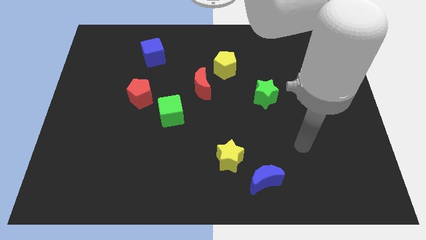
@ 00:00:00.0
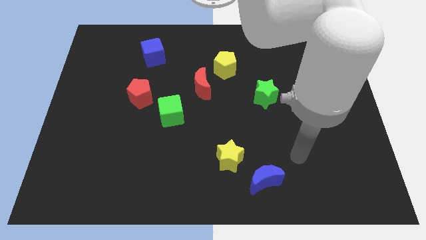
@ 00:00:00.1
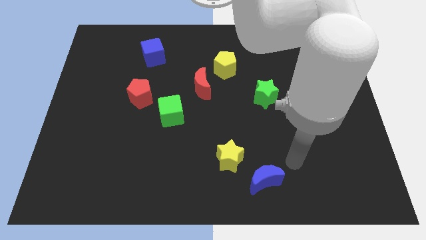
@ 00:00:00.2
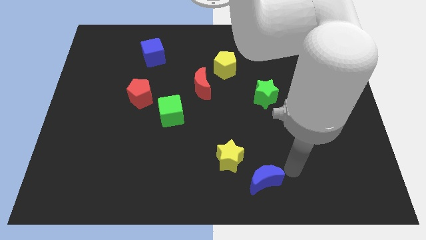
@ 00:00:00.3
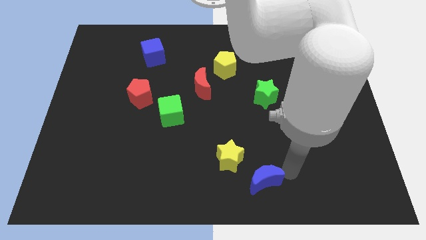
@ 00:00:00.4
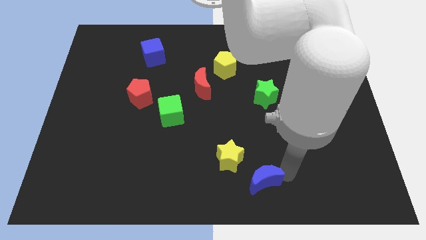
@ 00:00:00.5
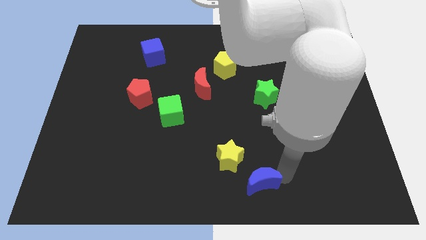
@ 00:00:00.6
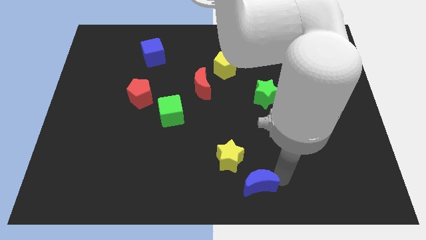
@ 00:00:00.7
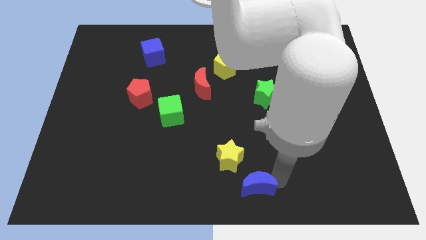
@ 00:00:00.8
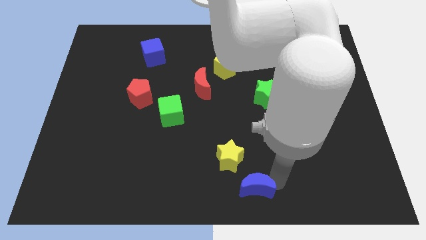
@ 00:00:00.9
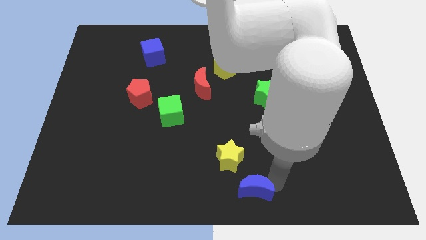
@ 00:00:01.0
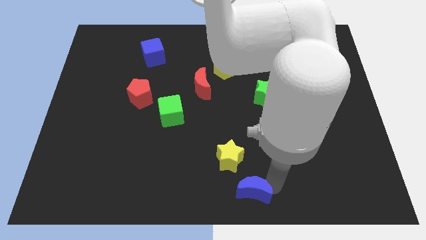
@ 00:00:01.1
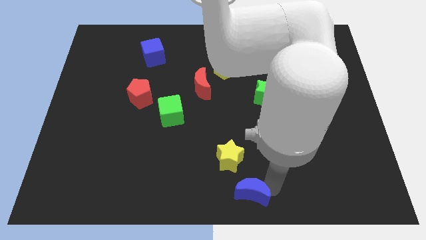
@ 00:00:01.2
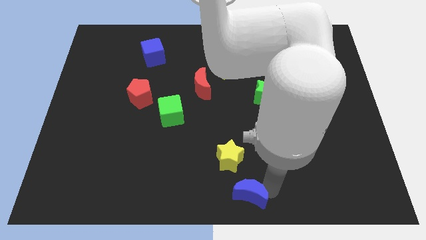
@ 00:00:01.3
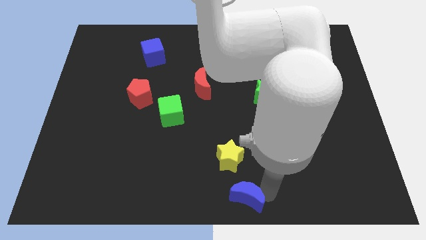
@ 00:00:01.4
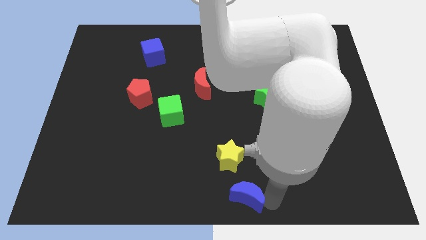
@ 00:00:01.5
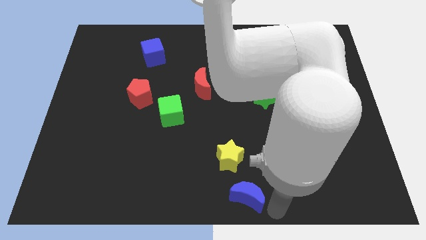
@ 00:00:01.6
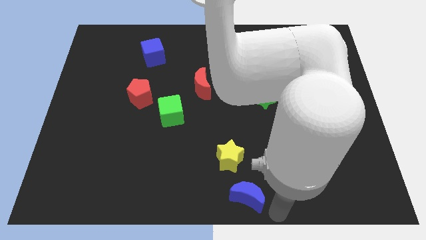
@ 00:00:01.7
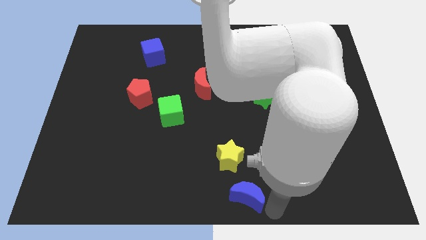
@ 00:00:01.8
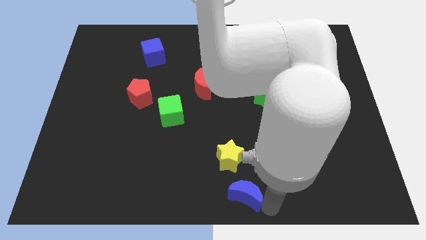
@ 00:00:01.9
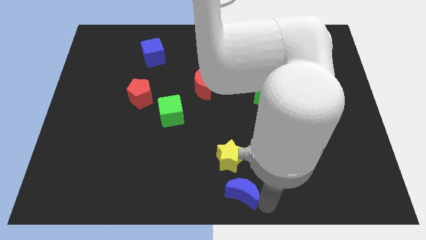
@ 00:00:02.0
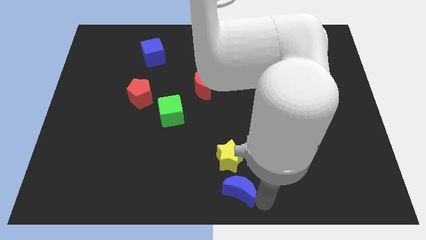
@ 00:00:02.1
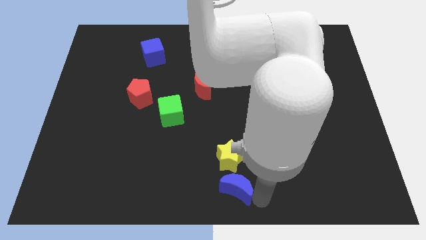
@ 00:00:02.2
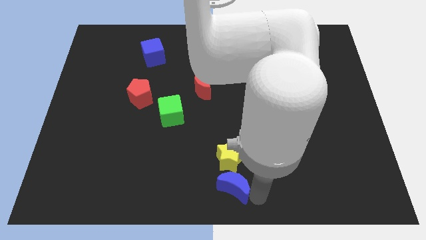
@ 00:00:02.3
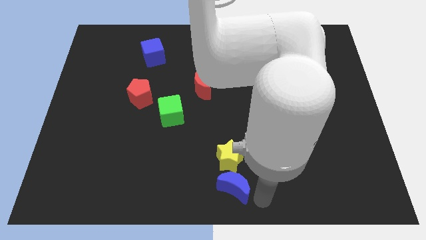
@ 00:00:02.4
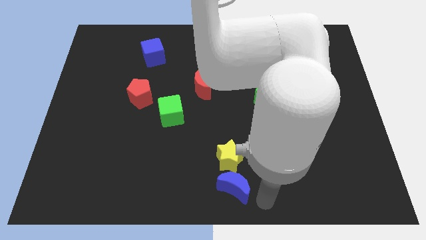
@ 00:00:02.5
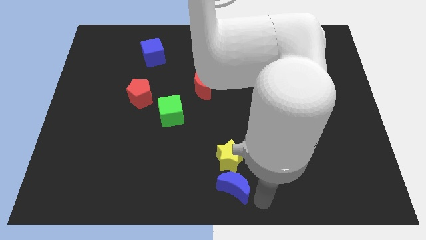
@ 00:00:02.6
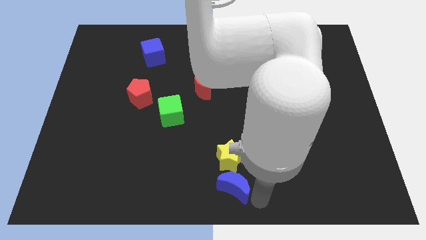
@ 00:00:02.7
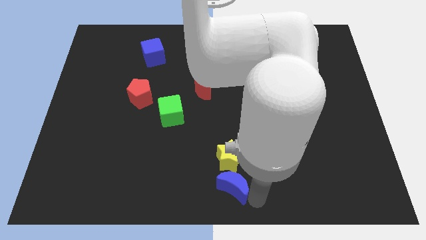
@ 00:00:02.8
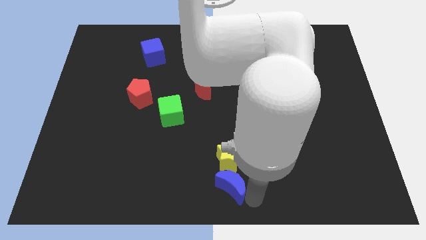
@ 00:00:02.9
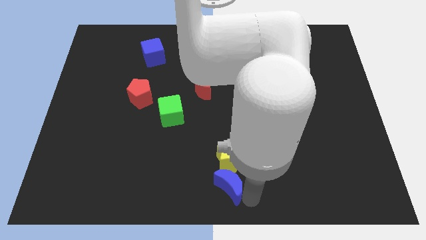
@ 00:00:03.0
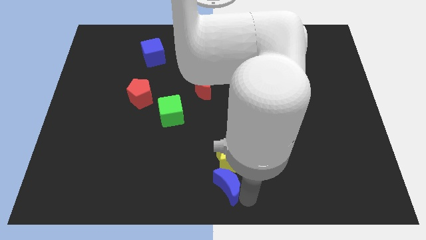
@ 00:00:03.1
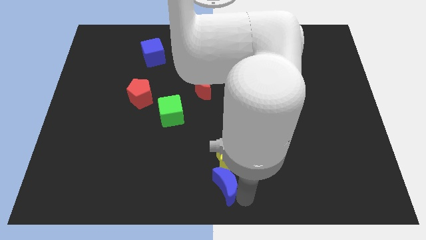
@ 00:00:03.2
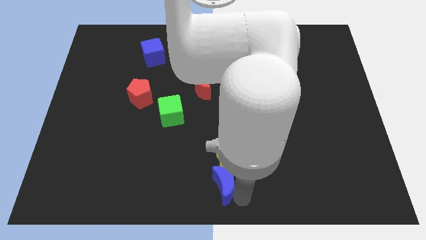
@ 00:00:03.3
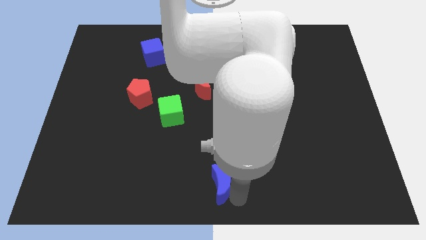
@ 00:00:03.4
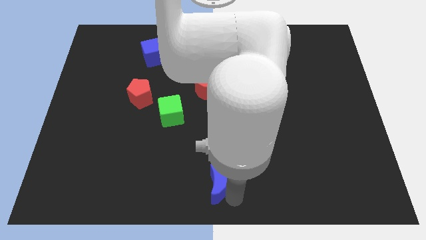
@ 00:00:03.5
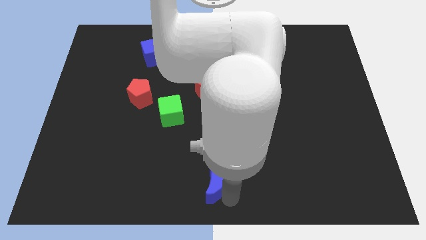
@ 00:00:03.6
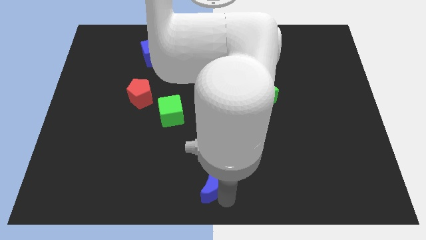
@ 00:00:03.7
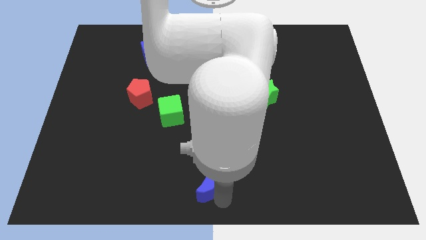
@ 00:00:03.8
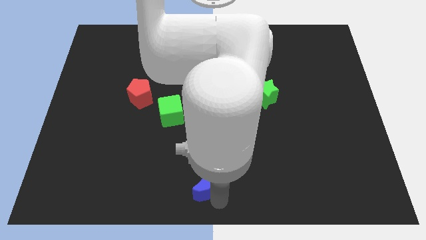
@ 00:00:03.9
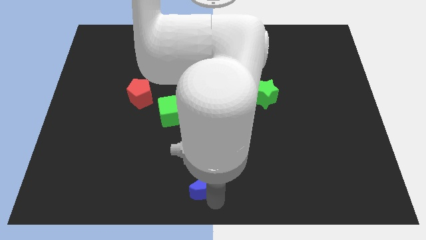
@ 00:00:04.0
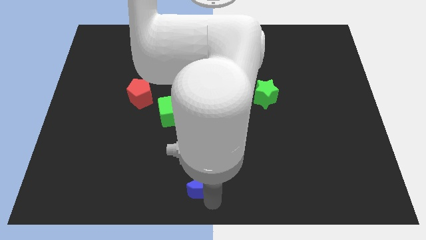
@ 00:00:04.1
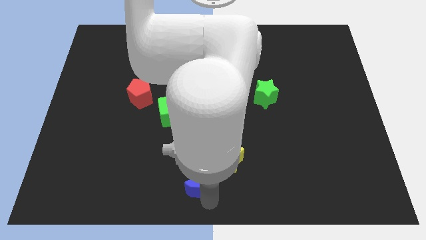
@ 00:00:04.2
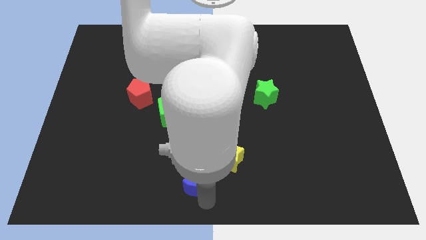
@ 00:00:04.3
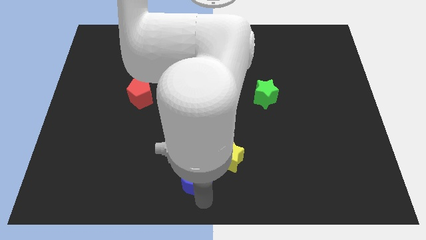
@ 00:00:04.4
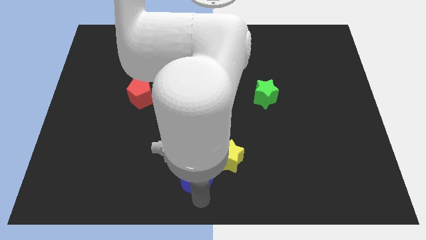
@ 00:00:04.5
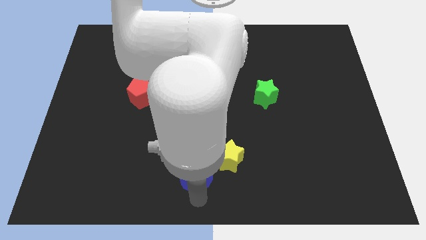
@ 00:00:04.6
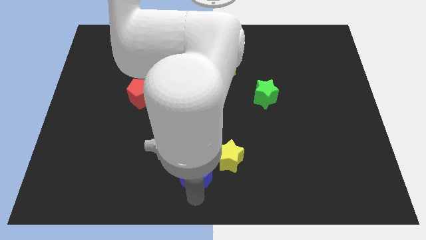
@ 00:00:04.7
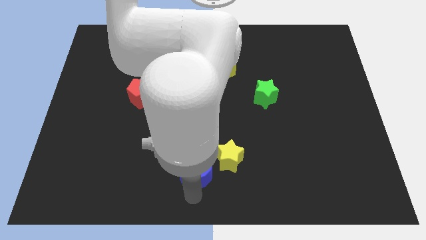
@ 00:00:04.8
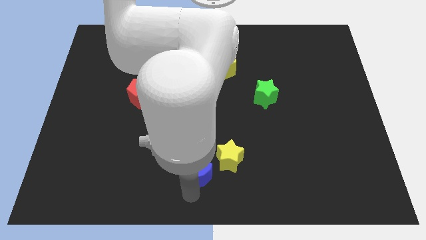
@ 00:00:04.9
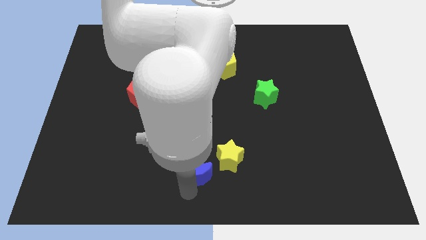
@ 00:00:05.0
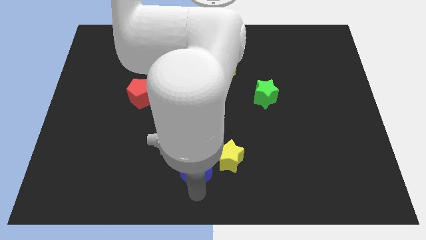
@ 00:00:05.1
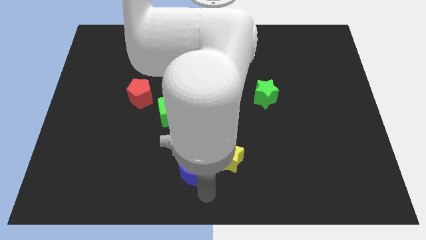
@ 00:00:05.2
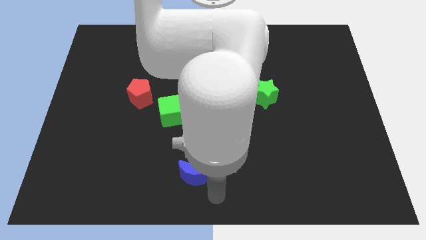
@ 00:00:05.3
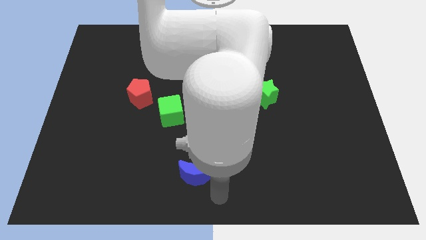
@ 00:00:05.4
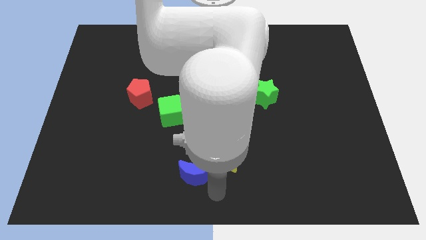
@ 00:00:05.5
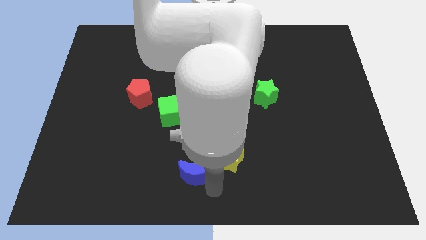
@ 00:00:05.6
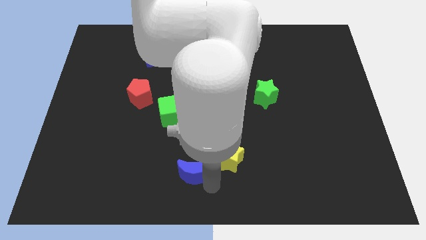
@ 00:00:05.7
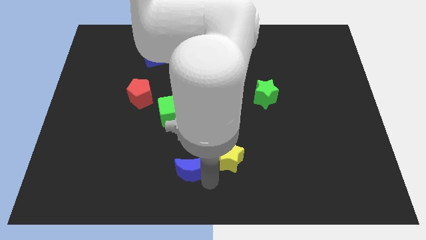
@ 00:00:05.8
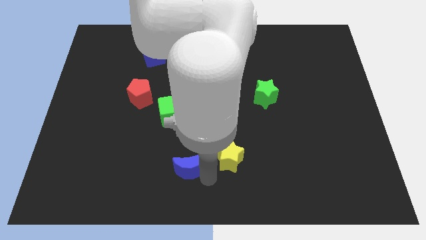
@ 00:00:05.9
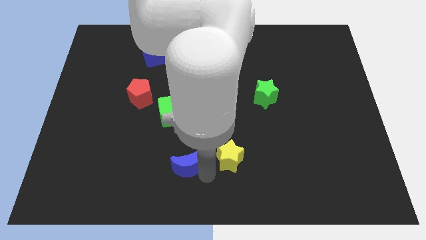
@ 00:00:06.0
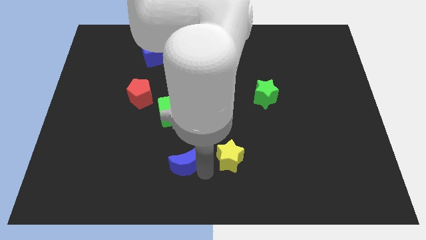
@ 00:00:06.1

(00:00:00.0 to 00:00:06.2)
slide the blue moon below the green cube

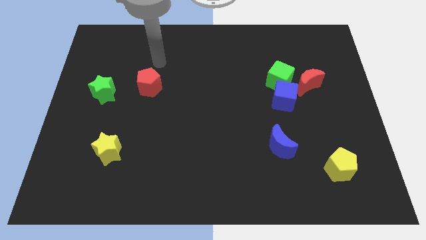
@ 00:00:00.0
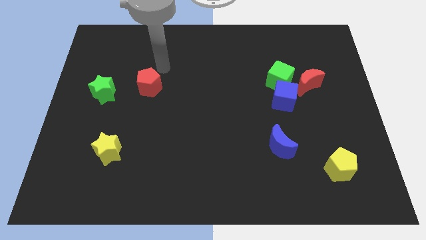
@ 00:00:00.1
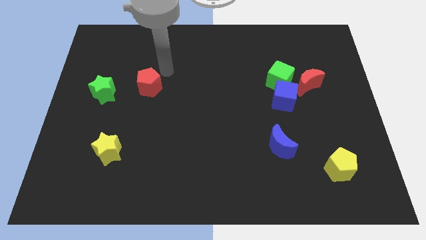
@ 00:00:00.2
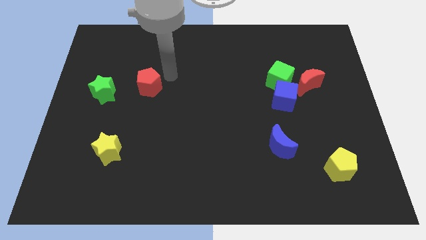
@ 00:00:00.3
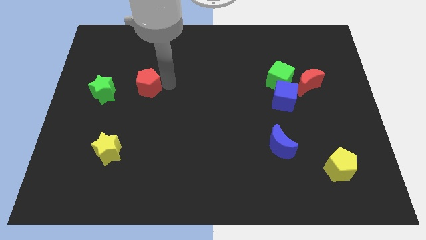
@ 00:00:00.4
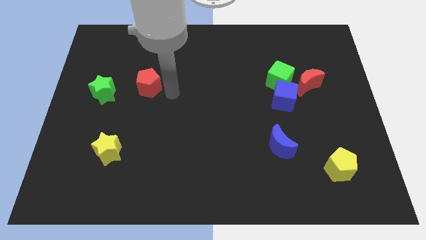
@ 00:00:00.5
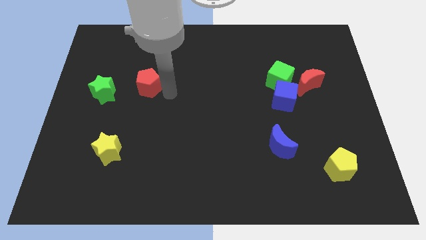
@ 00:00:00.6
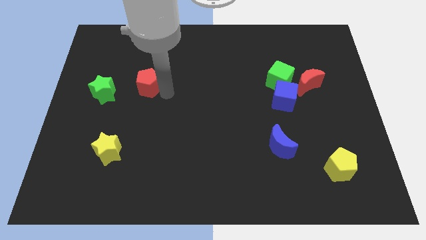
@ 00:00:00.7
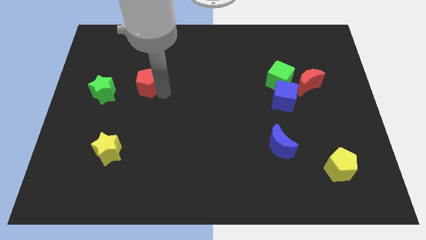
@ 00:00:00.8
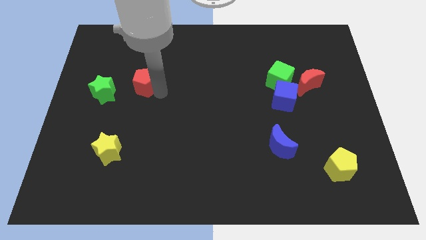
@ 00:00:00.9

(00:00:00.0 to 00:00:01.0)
push the red pentagon to the top right side of the green star
